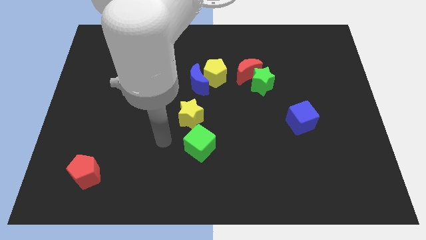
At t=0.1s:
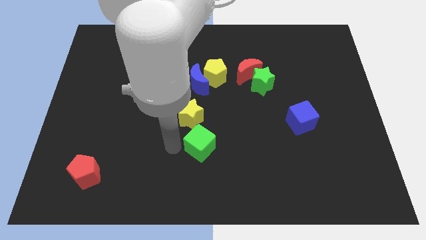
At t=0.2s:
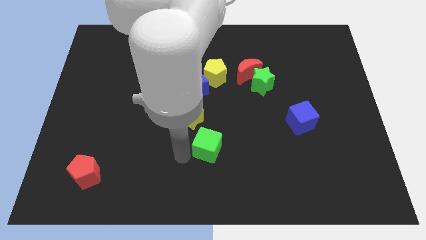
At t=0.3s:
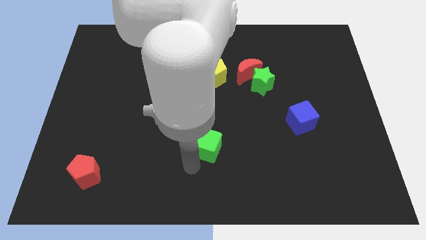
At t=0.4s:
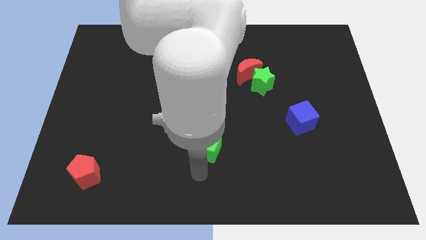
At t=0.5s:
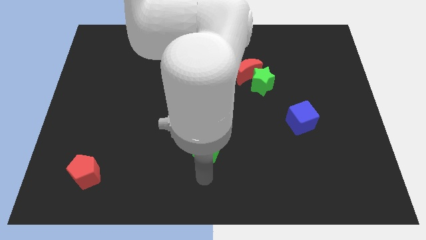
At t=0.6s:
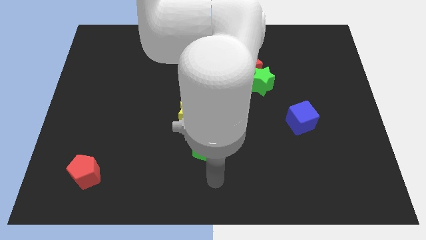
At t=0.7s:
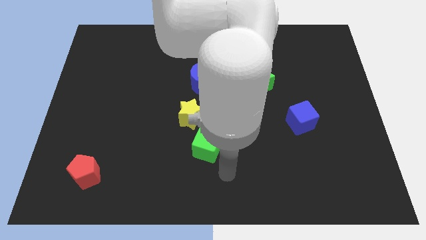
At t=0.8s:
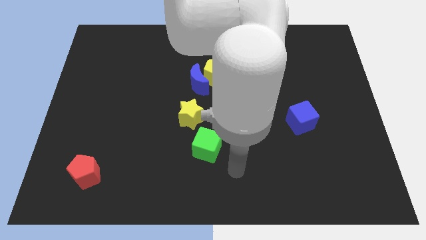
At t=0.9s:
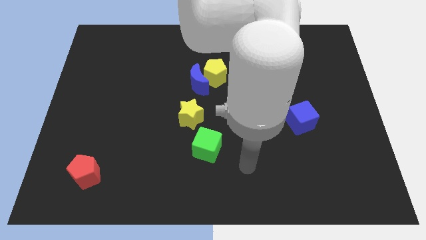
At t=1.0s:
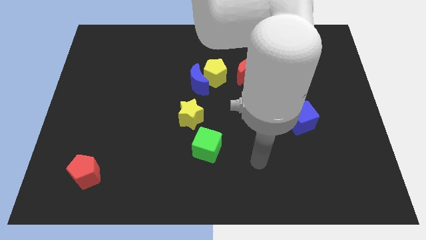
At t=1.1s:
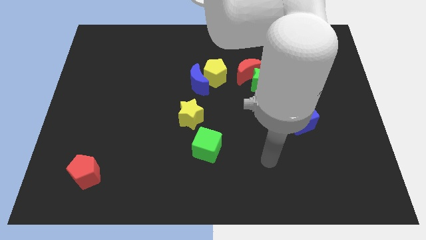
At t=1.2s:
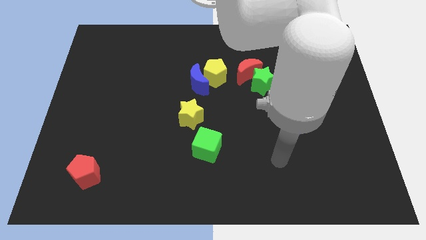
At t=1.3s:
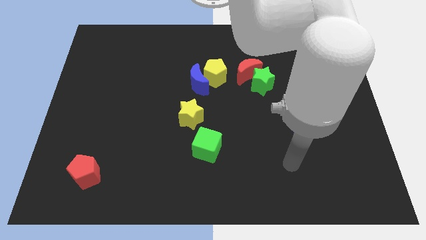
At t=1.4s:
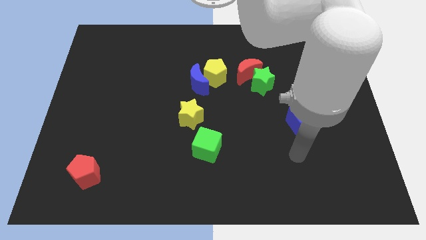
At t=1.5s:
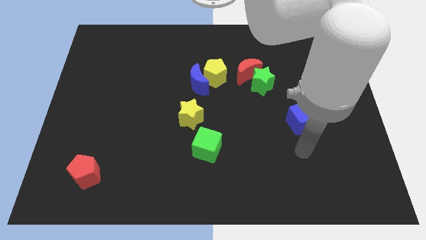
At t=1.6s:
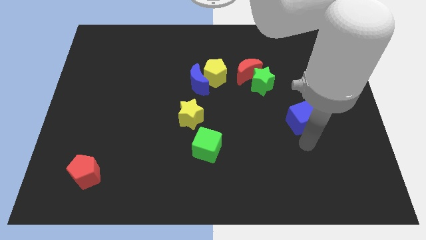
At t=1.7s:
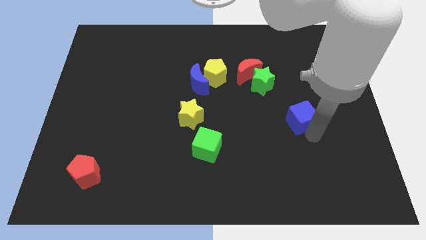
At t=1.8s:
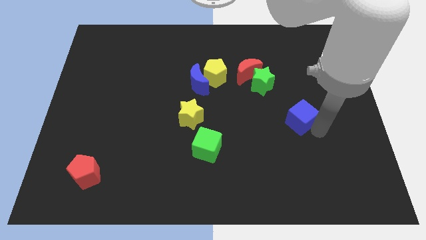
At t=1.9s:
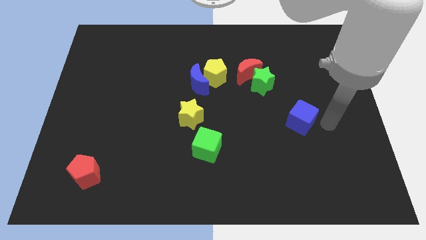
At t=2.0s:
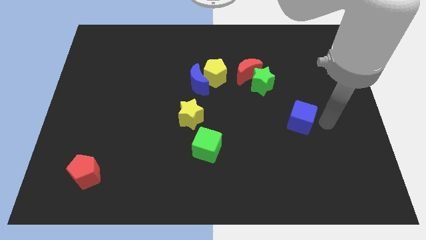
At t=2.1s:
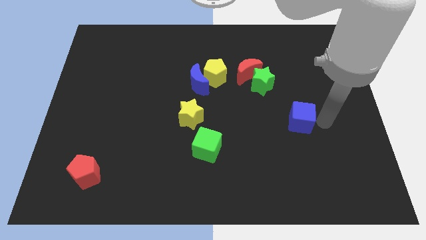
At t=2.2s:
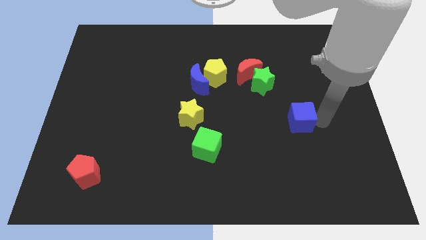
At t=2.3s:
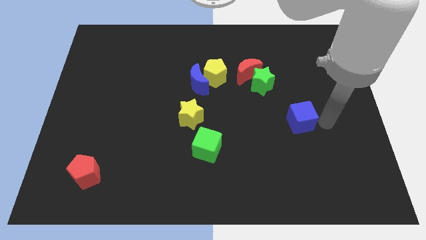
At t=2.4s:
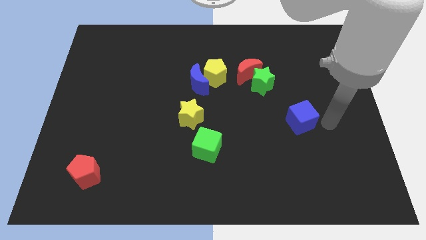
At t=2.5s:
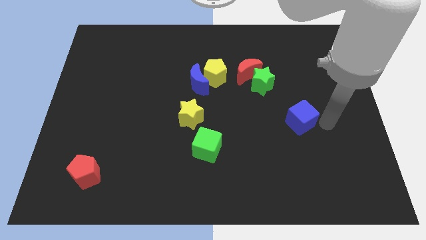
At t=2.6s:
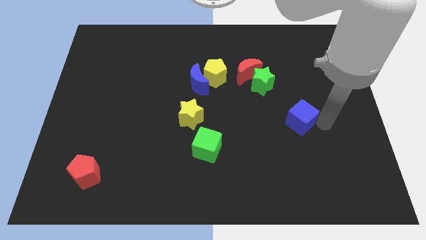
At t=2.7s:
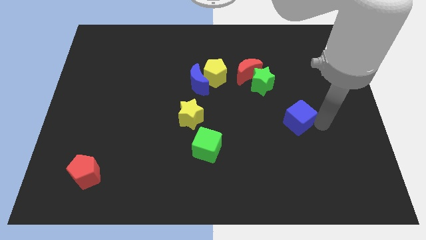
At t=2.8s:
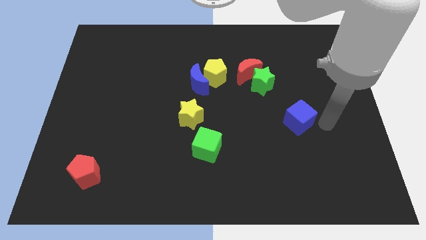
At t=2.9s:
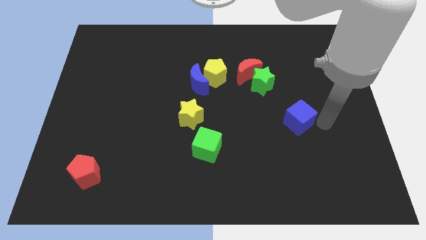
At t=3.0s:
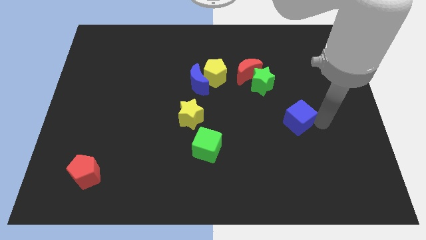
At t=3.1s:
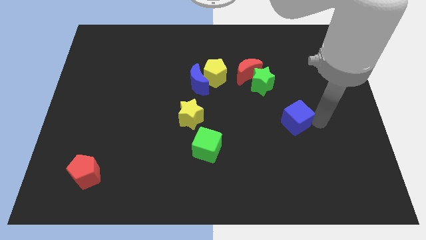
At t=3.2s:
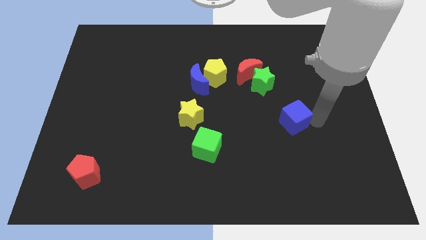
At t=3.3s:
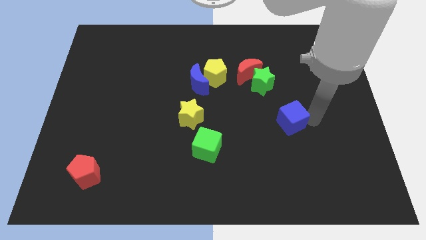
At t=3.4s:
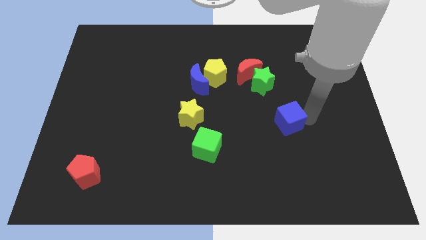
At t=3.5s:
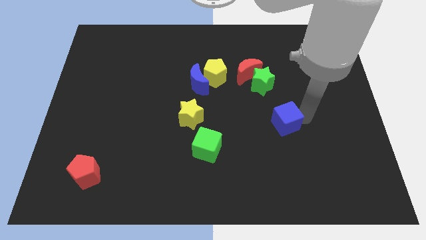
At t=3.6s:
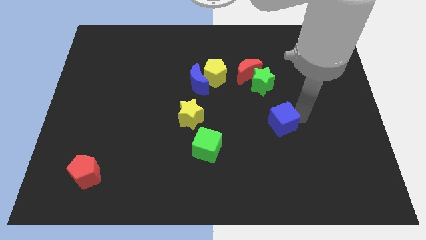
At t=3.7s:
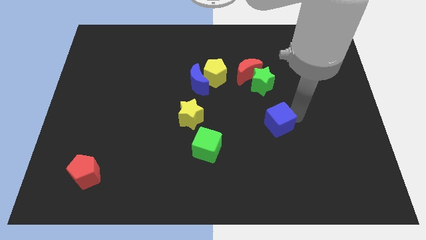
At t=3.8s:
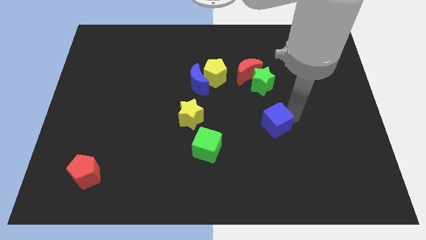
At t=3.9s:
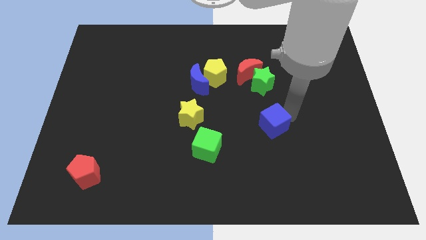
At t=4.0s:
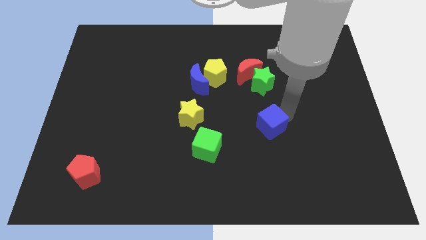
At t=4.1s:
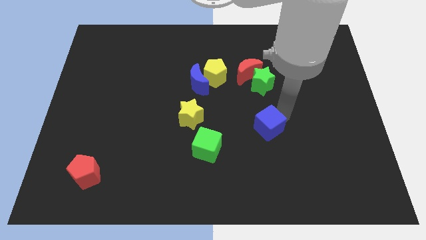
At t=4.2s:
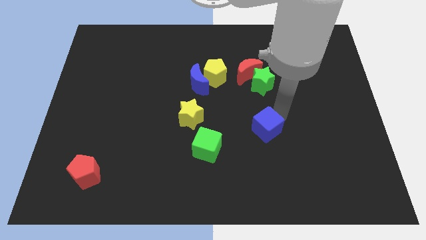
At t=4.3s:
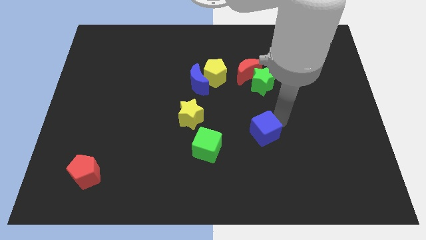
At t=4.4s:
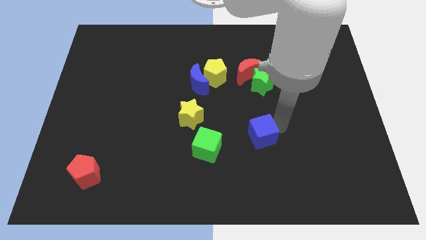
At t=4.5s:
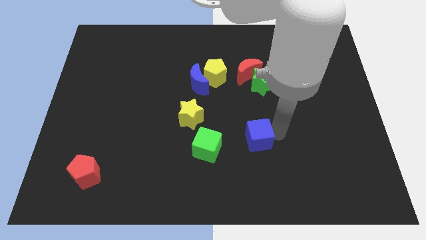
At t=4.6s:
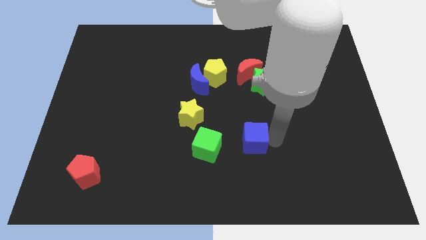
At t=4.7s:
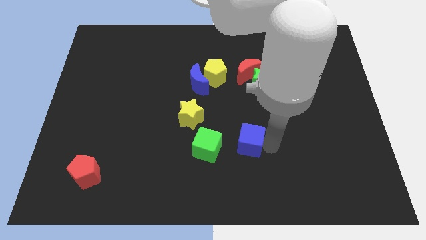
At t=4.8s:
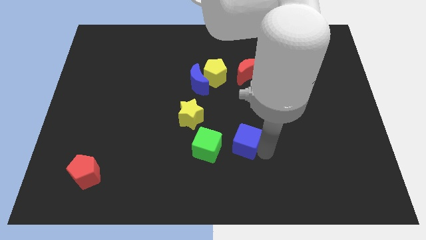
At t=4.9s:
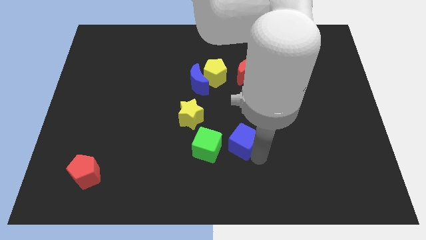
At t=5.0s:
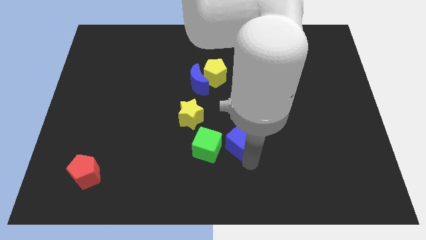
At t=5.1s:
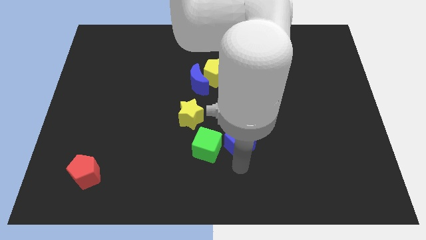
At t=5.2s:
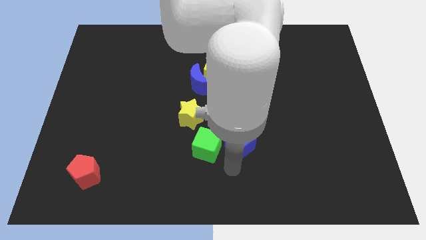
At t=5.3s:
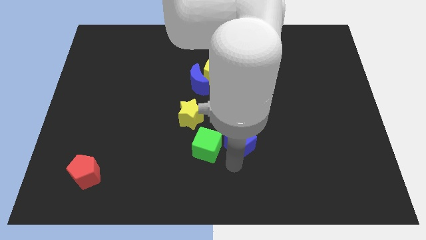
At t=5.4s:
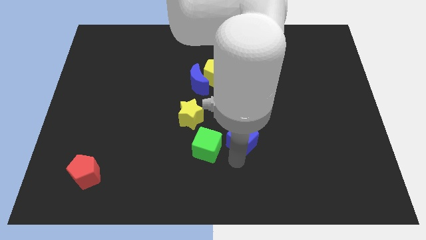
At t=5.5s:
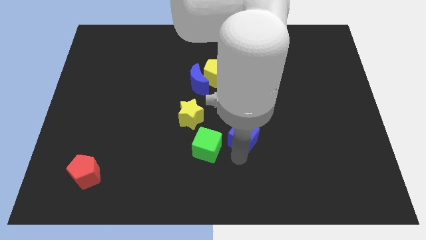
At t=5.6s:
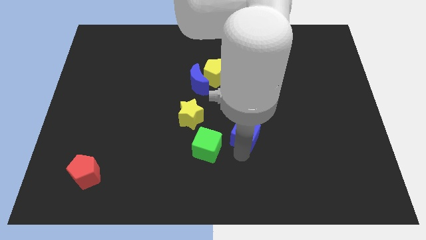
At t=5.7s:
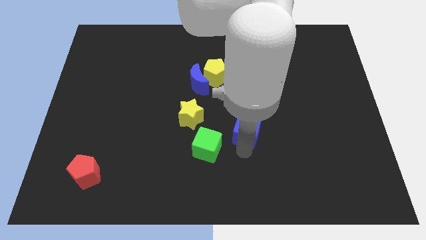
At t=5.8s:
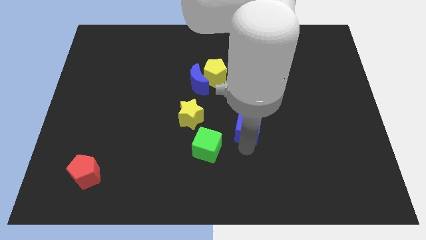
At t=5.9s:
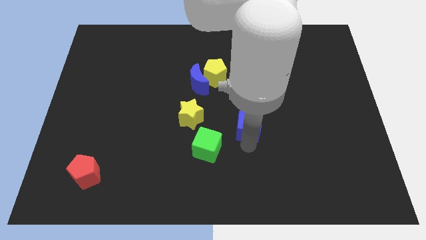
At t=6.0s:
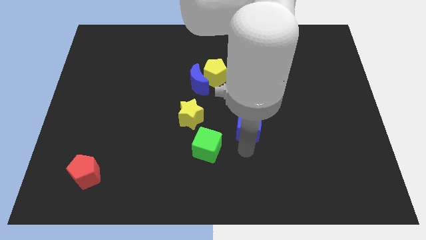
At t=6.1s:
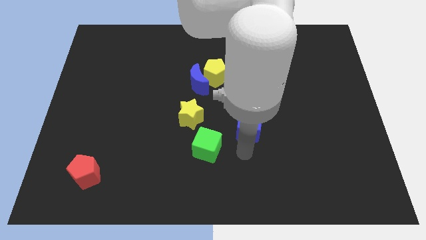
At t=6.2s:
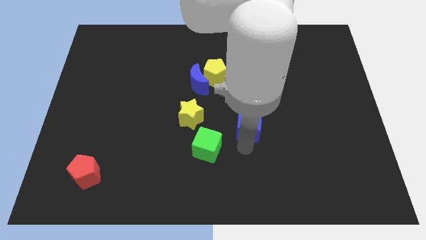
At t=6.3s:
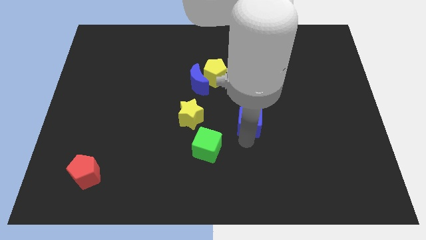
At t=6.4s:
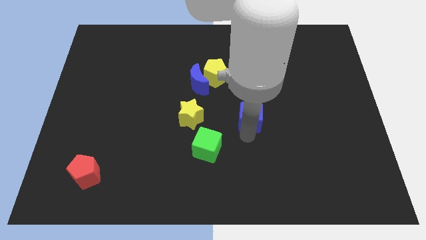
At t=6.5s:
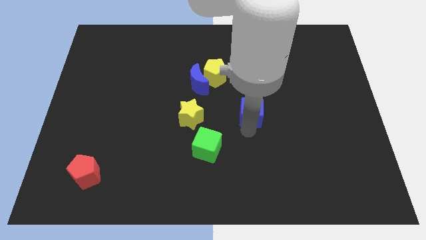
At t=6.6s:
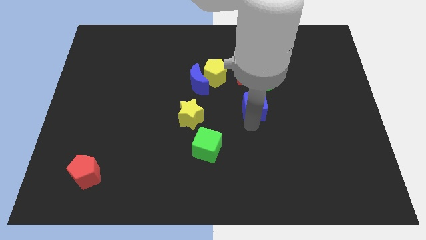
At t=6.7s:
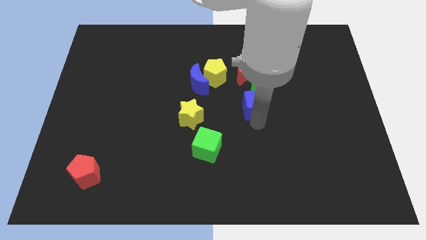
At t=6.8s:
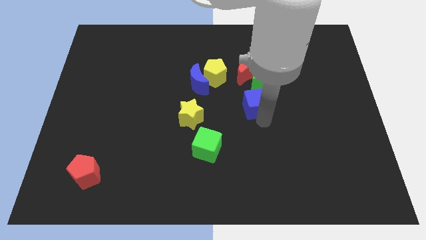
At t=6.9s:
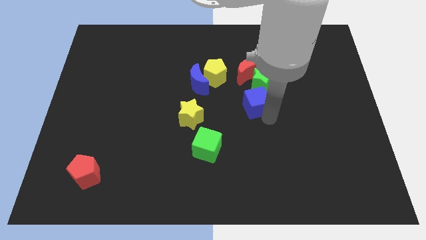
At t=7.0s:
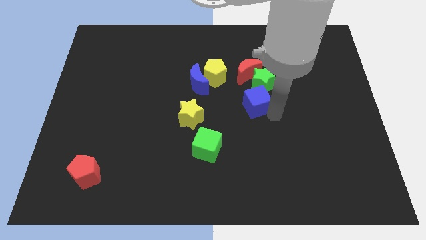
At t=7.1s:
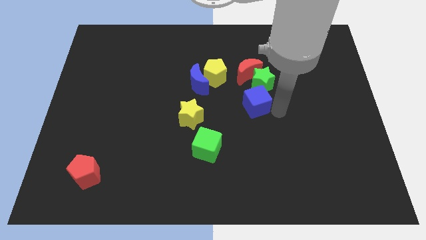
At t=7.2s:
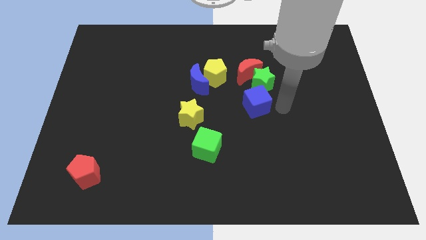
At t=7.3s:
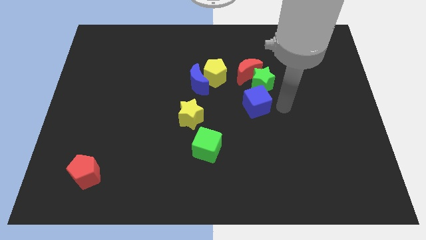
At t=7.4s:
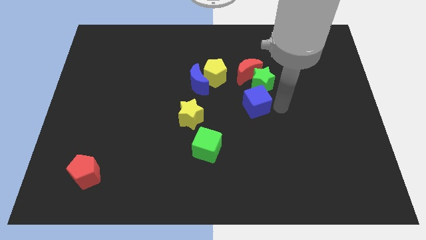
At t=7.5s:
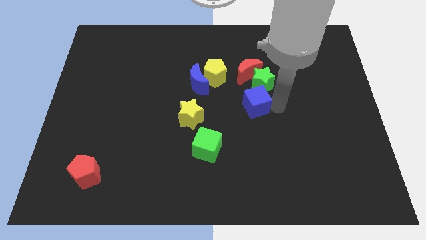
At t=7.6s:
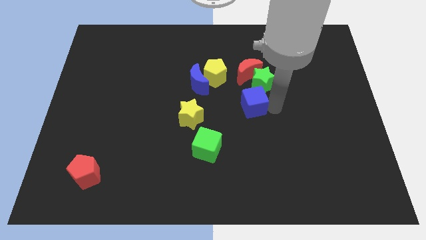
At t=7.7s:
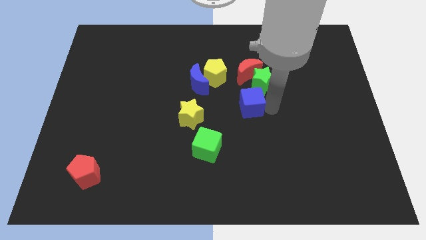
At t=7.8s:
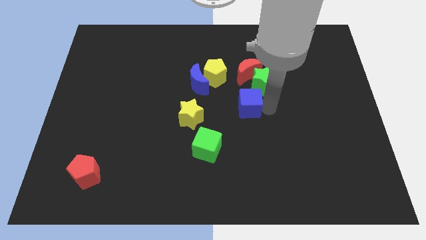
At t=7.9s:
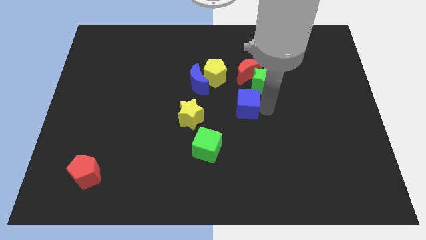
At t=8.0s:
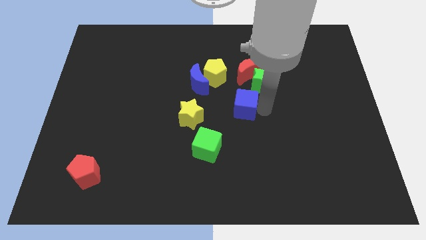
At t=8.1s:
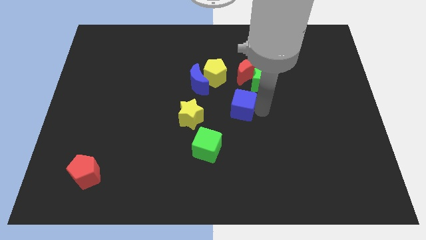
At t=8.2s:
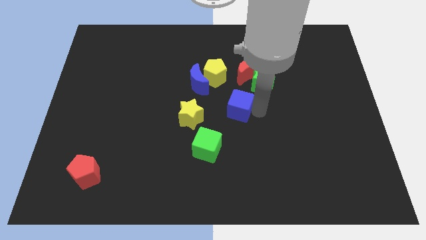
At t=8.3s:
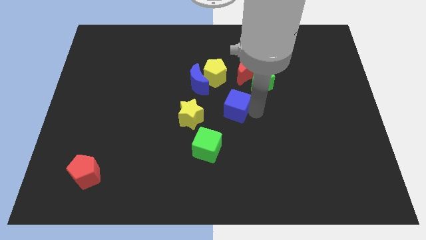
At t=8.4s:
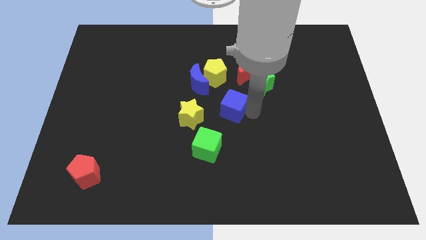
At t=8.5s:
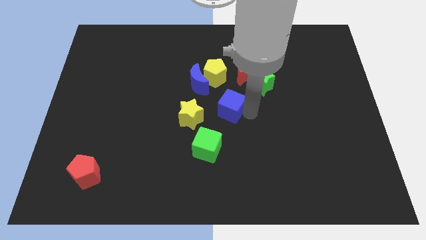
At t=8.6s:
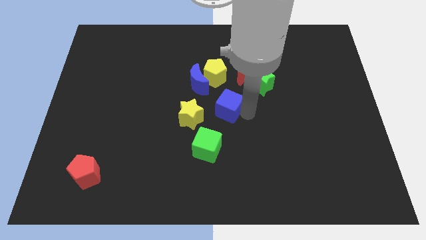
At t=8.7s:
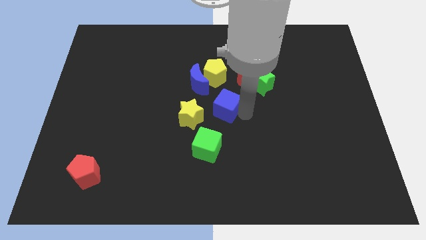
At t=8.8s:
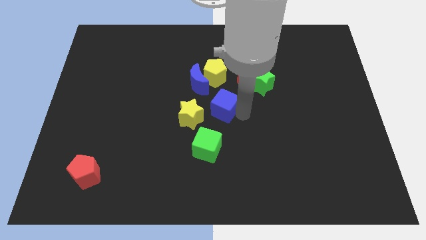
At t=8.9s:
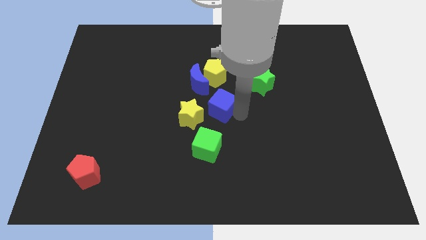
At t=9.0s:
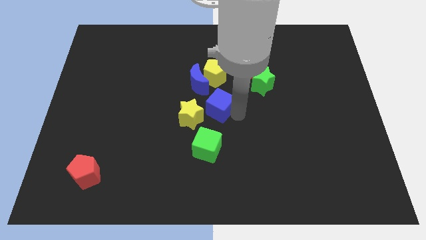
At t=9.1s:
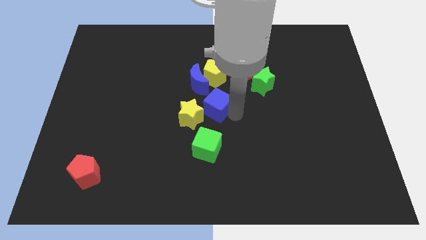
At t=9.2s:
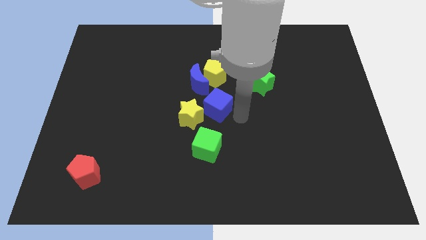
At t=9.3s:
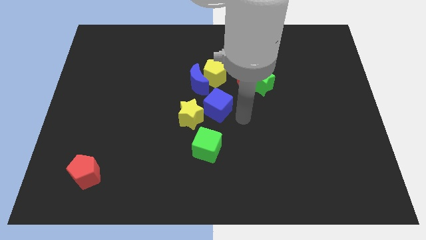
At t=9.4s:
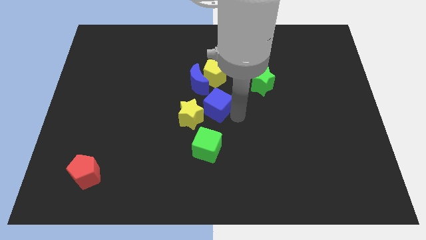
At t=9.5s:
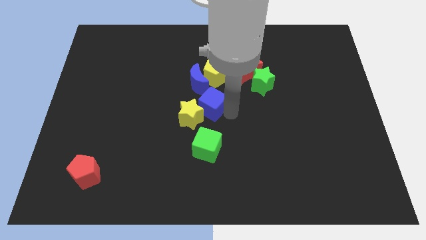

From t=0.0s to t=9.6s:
push the blue cube left
